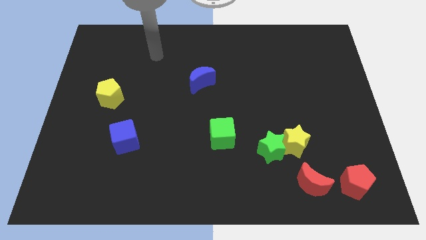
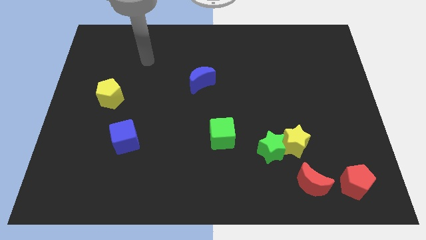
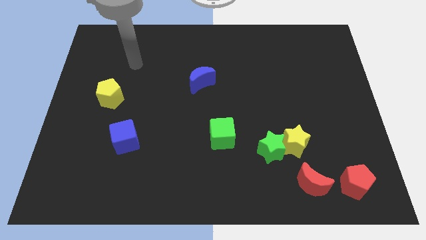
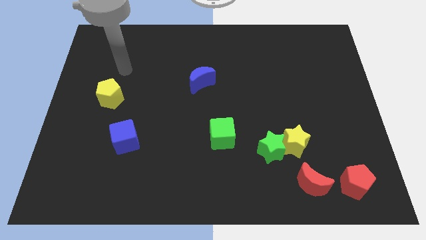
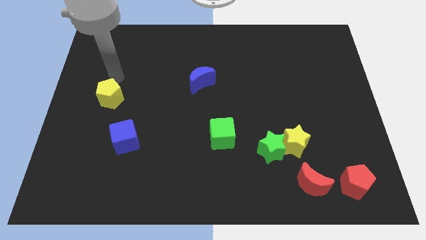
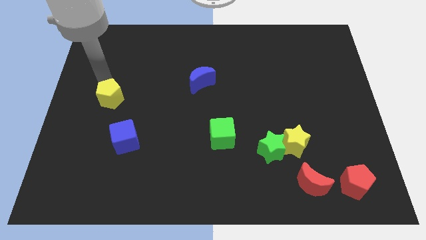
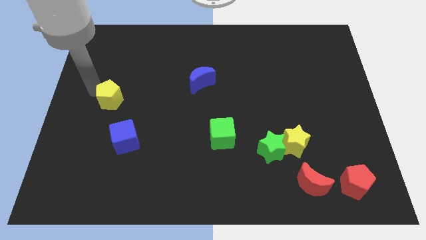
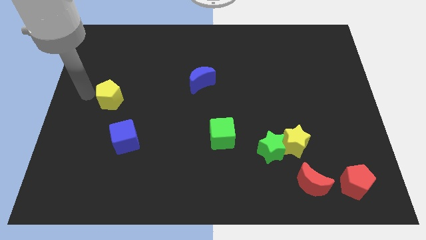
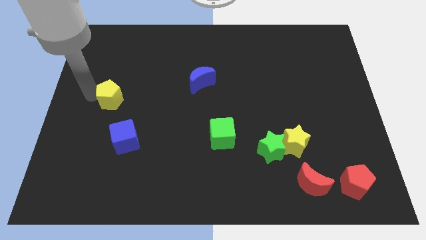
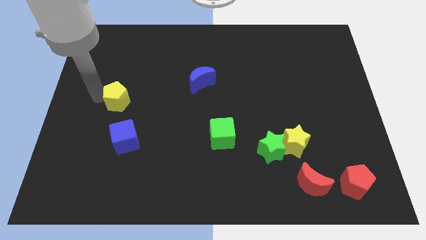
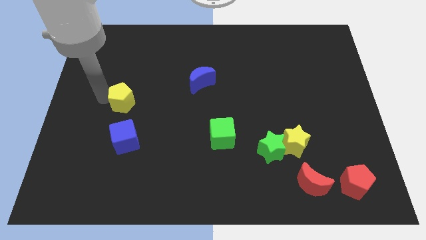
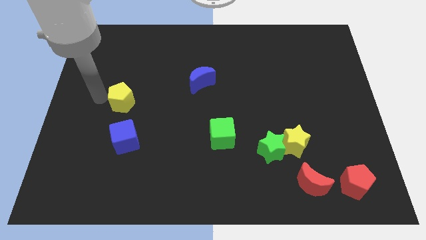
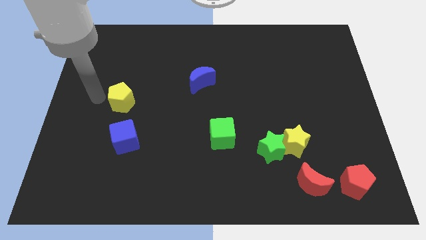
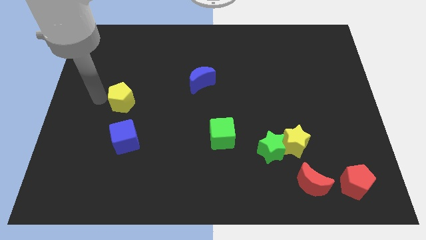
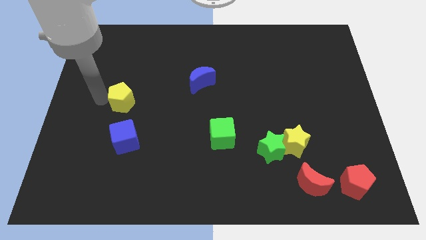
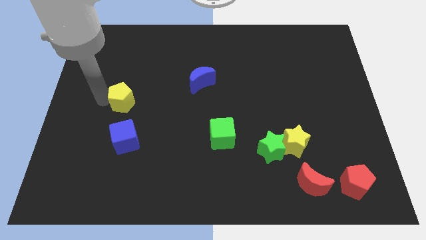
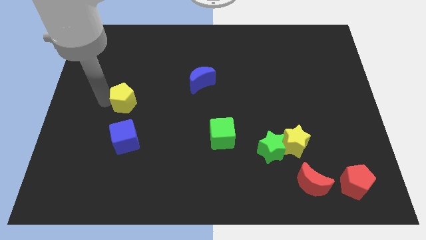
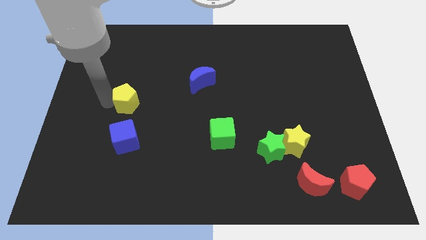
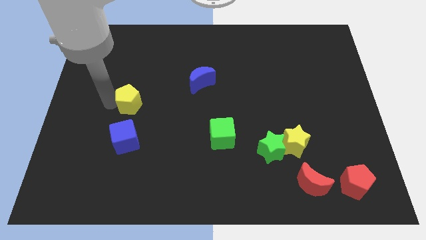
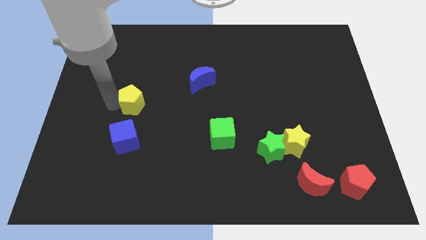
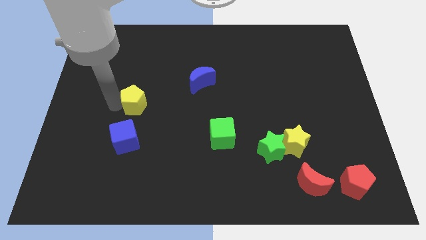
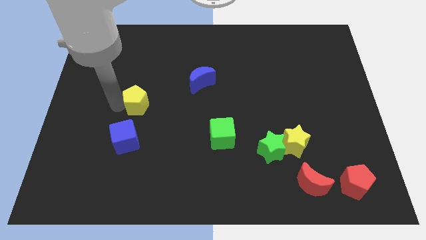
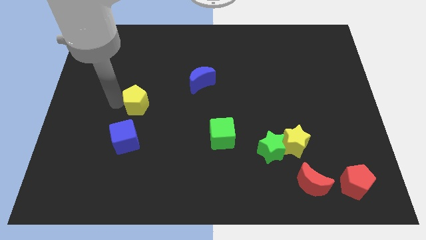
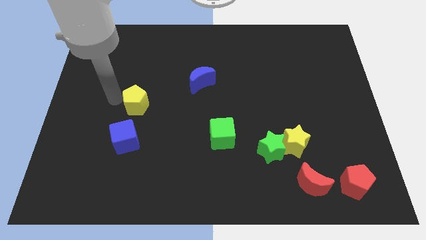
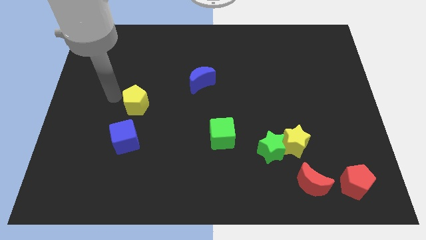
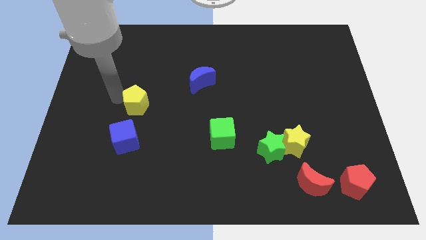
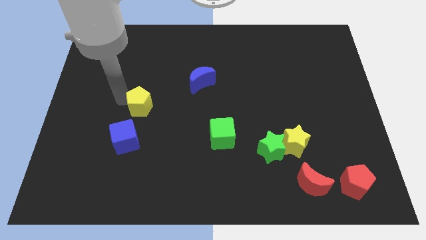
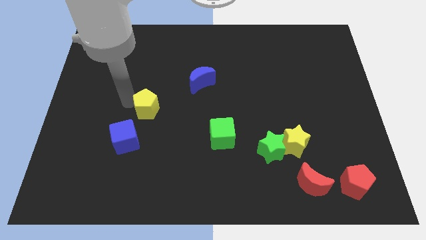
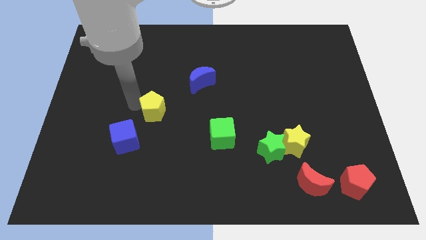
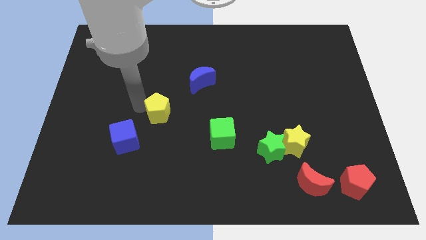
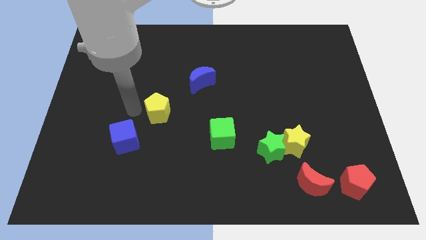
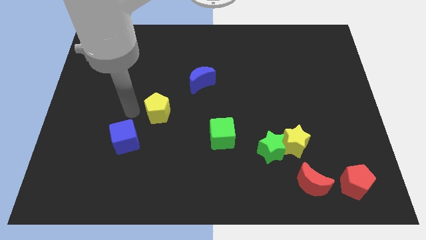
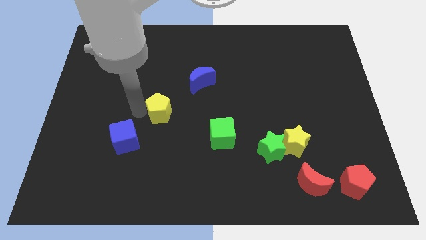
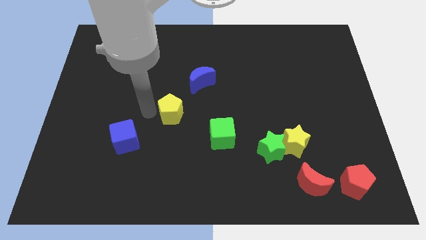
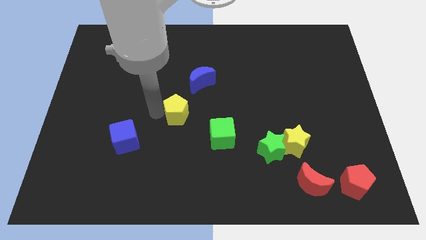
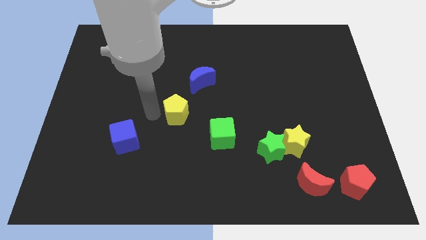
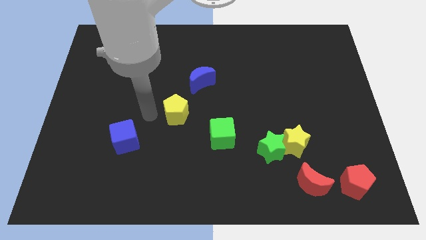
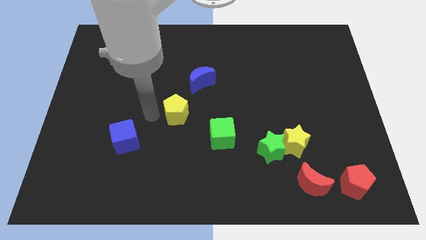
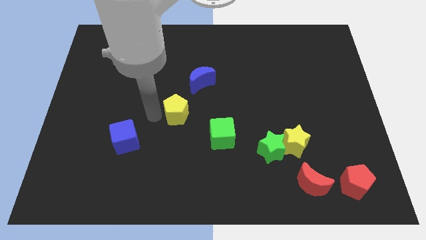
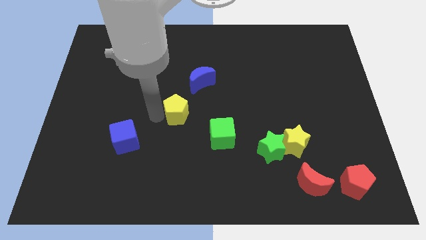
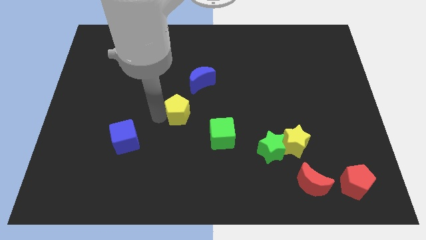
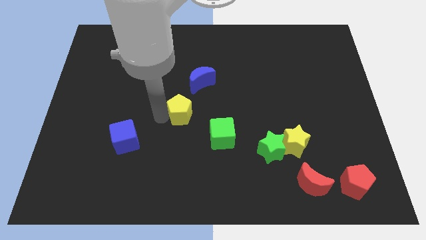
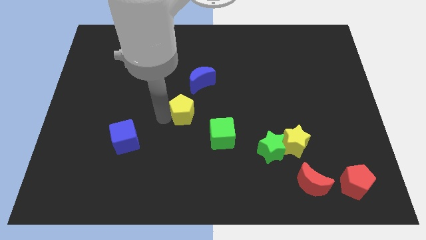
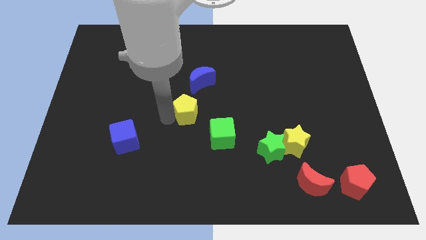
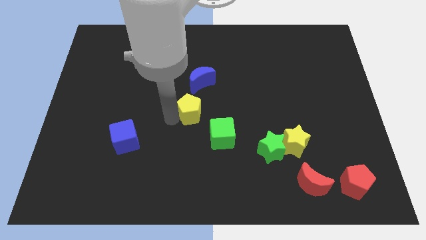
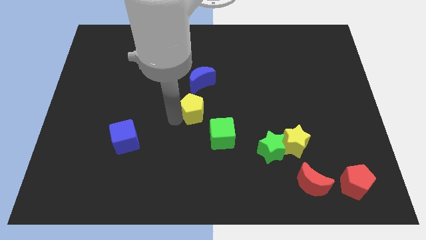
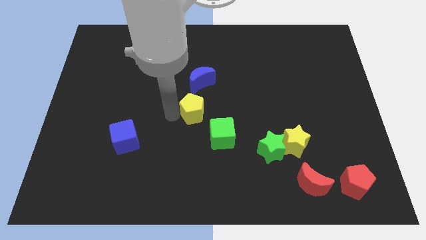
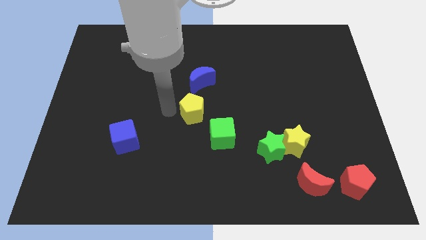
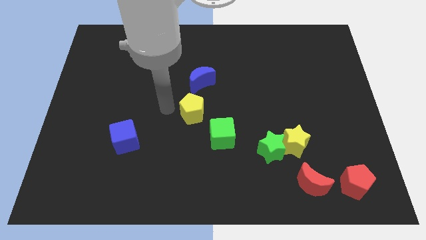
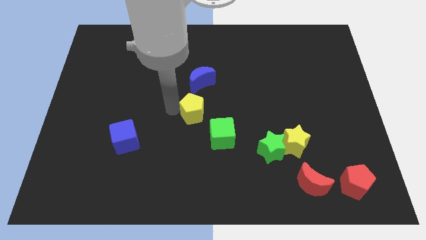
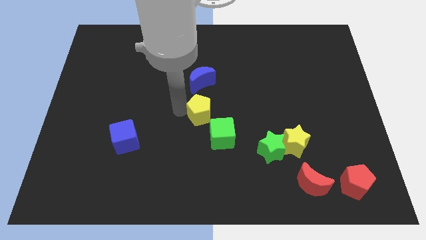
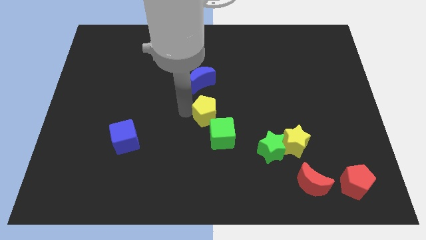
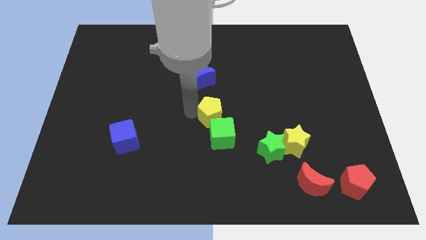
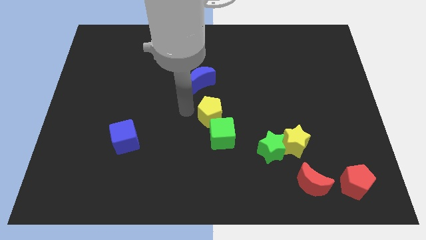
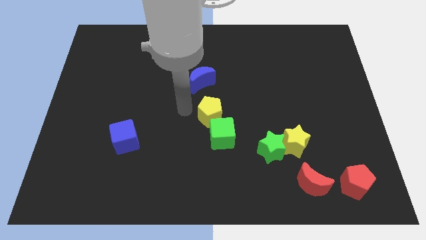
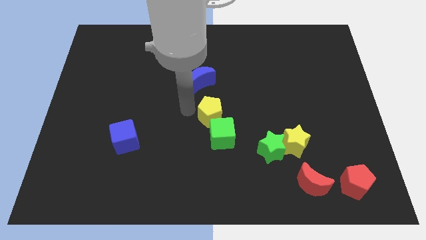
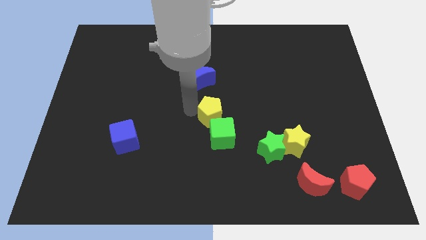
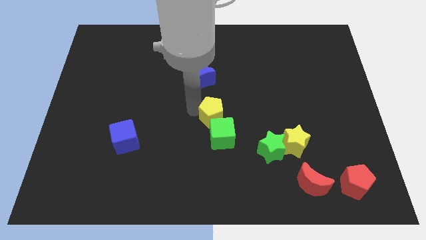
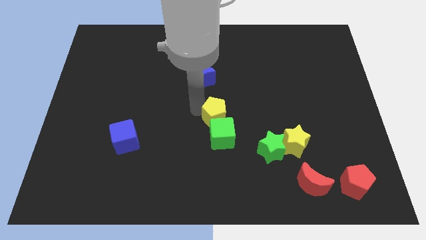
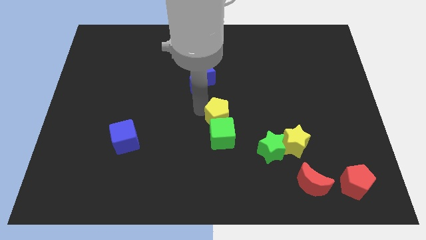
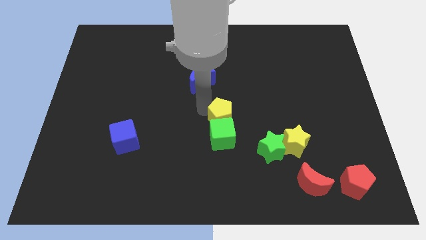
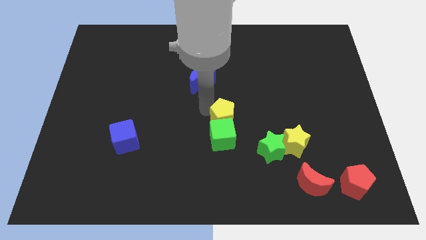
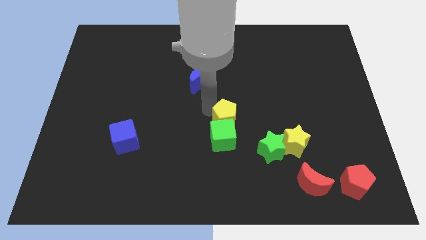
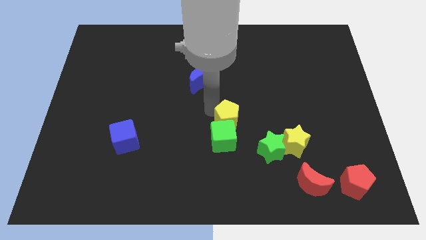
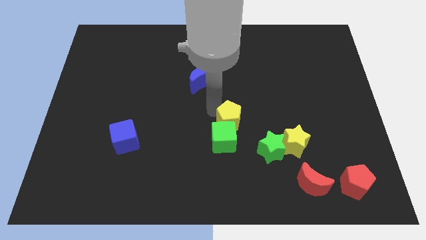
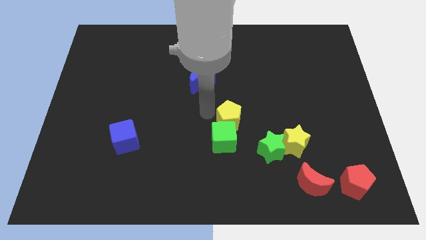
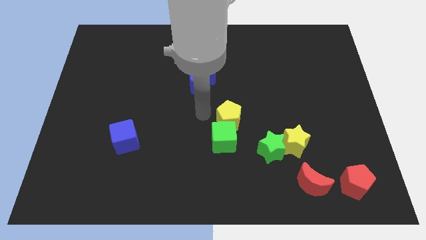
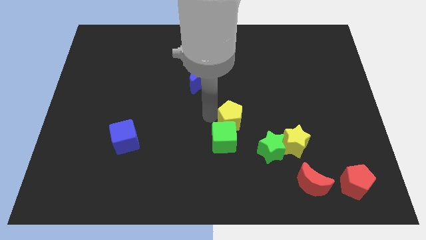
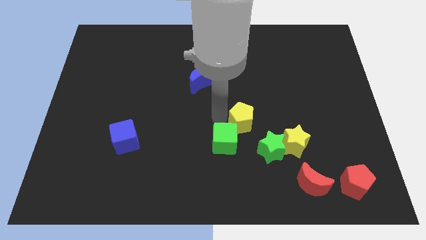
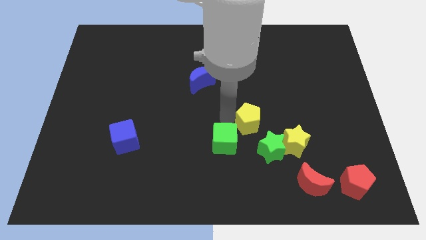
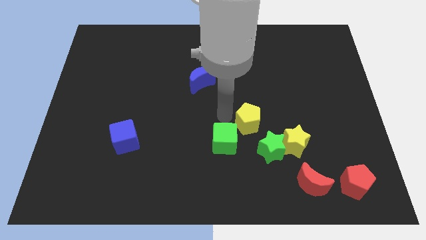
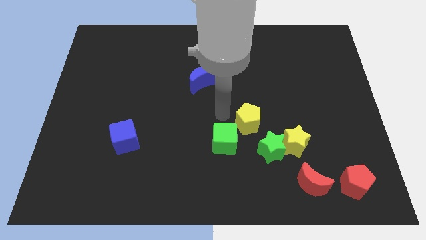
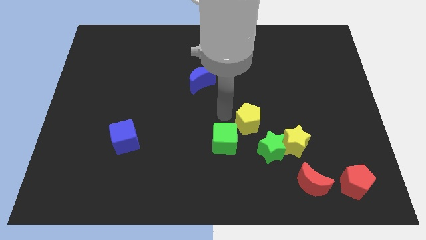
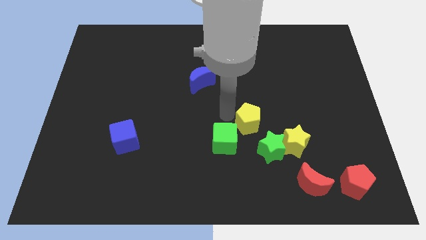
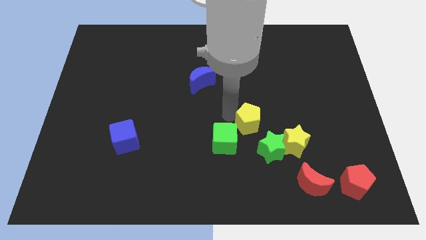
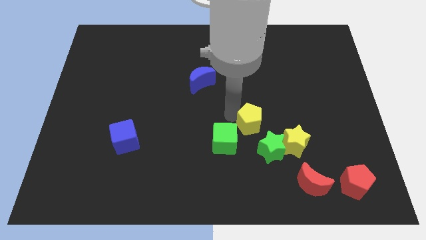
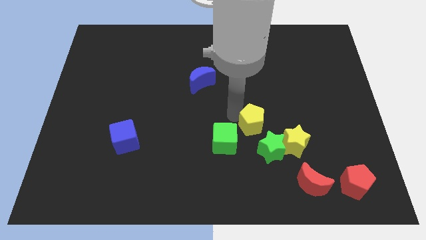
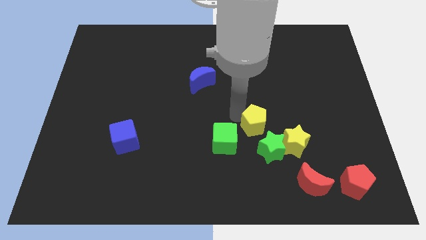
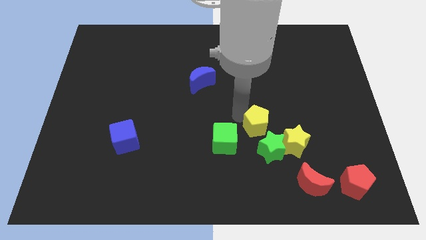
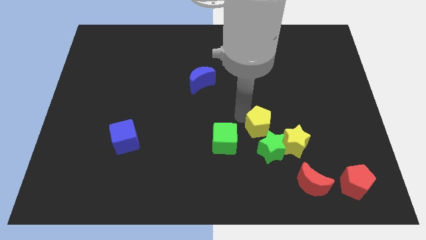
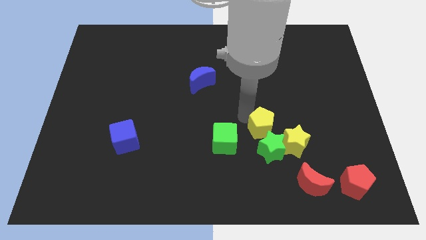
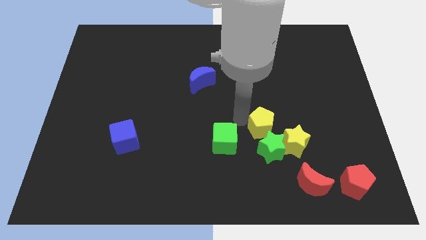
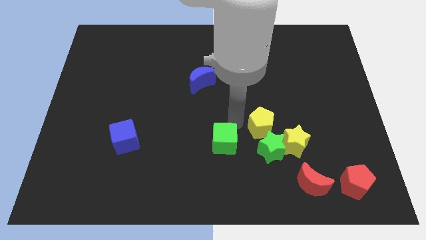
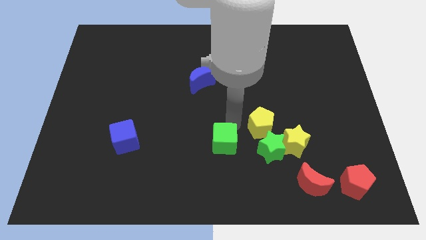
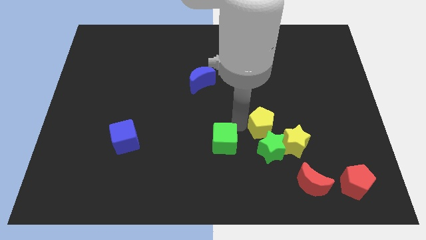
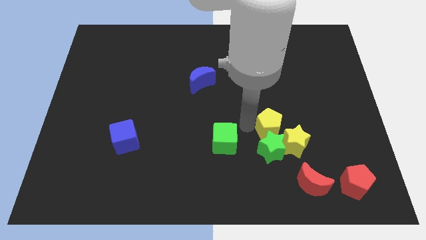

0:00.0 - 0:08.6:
push the yellow pentagon to the top right of the green star
